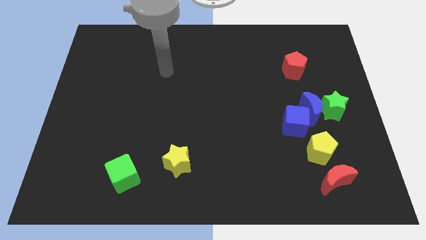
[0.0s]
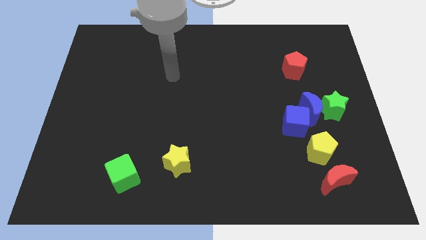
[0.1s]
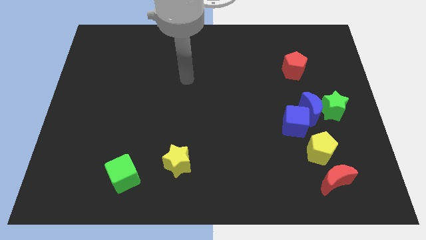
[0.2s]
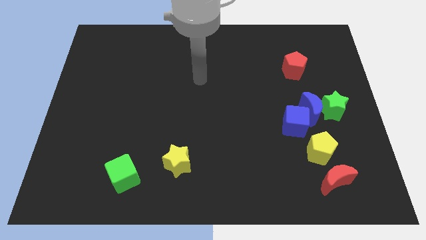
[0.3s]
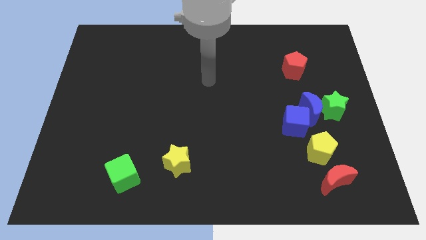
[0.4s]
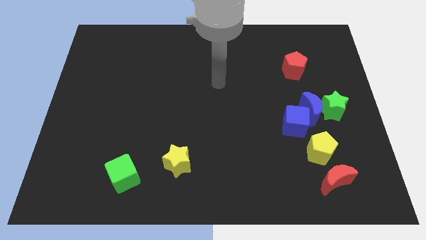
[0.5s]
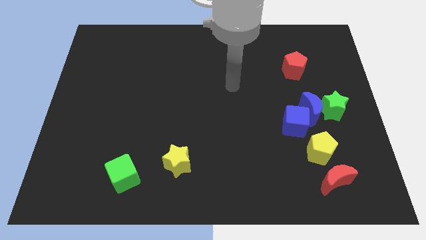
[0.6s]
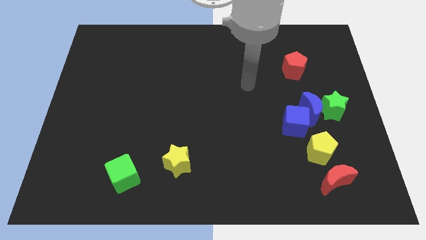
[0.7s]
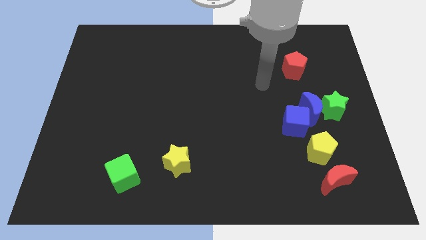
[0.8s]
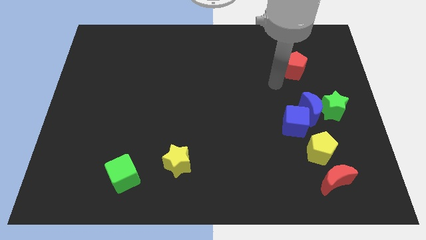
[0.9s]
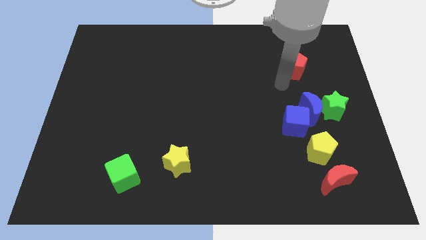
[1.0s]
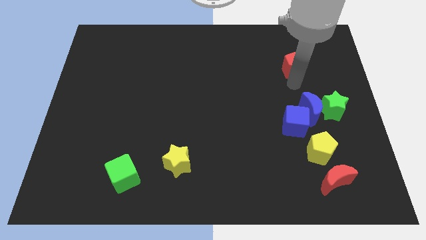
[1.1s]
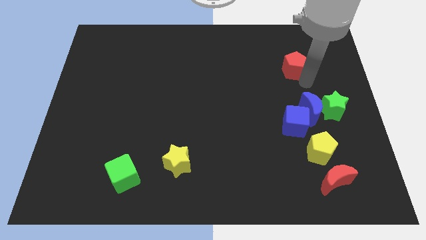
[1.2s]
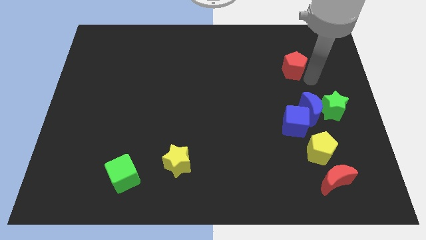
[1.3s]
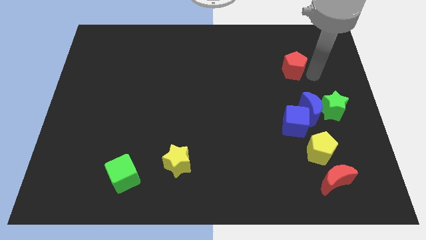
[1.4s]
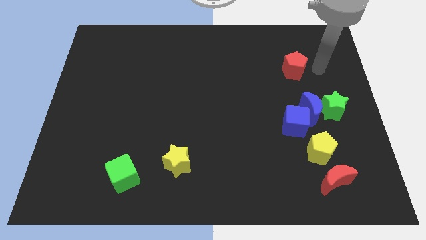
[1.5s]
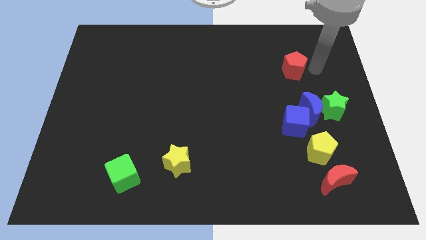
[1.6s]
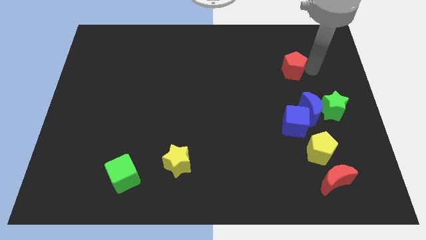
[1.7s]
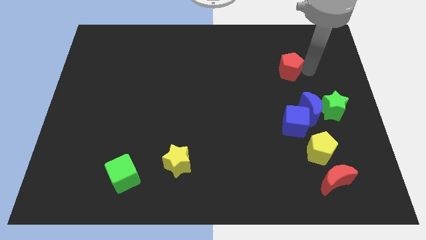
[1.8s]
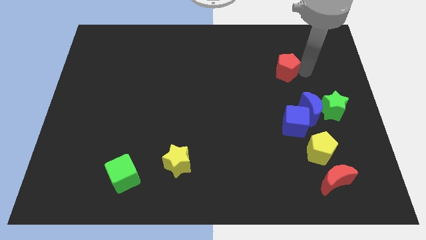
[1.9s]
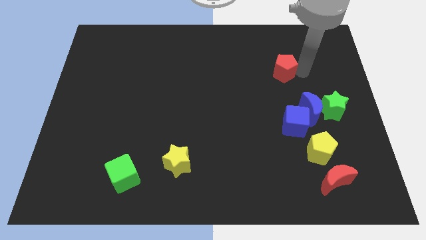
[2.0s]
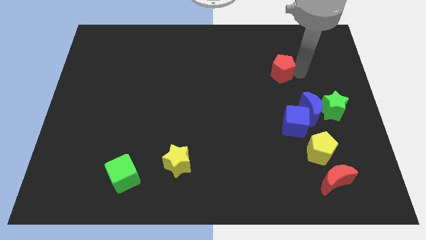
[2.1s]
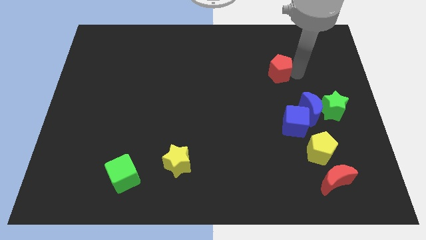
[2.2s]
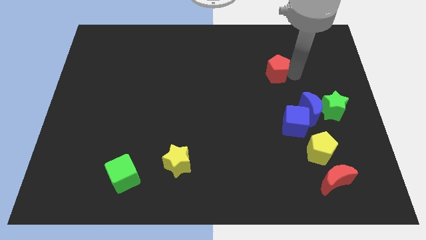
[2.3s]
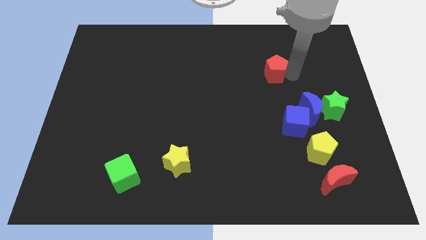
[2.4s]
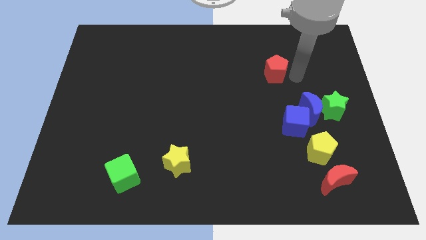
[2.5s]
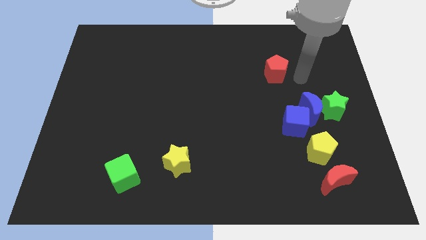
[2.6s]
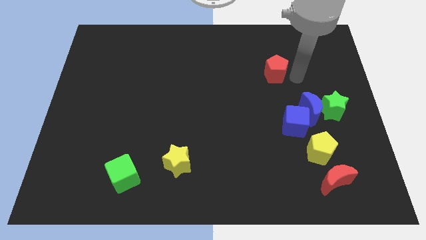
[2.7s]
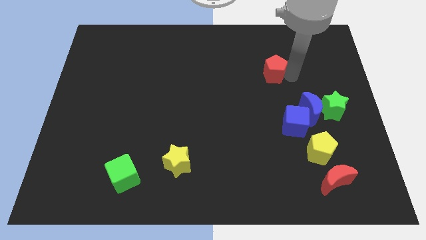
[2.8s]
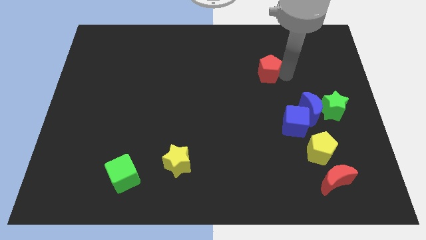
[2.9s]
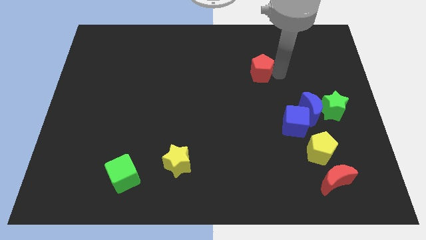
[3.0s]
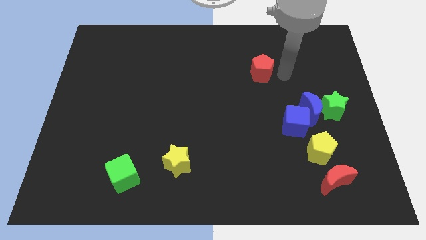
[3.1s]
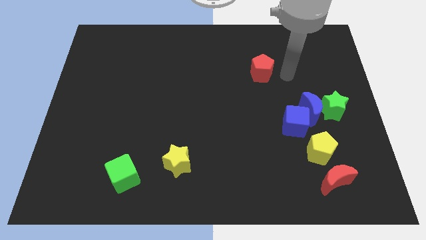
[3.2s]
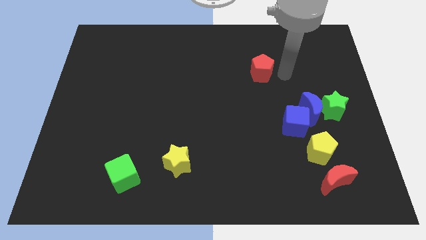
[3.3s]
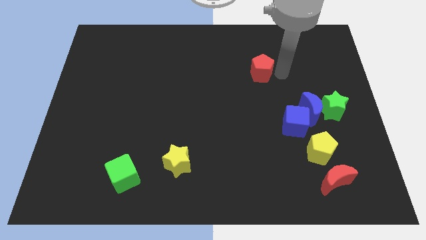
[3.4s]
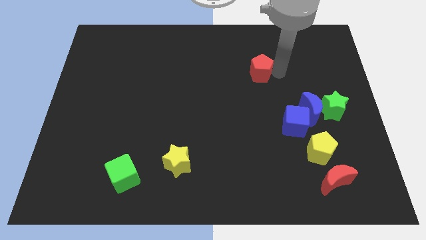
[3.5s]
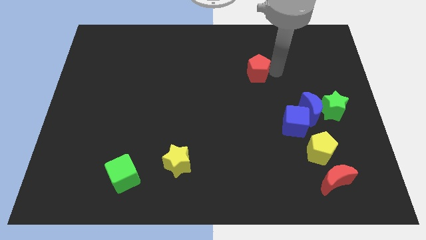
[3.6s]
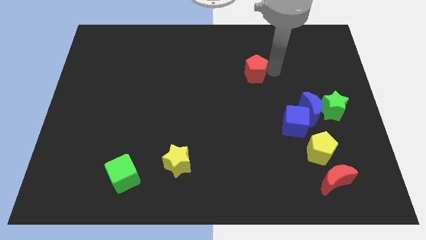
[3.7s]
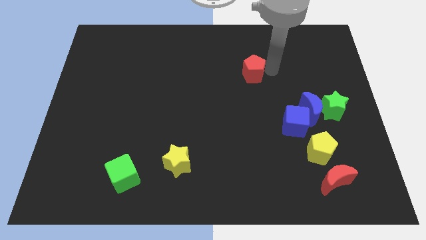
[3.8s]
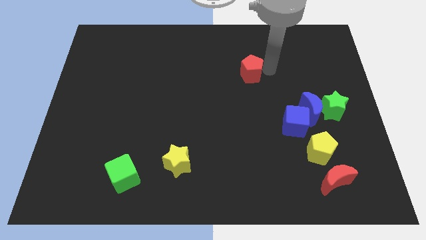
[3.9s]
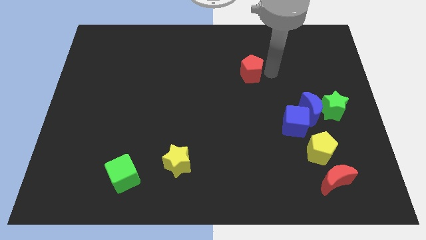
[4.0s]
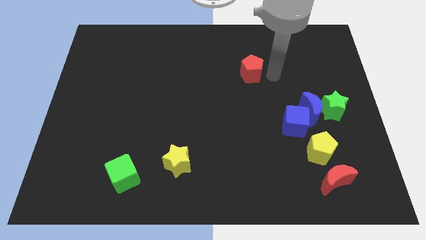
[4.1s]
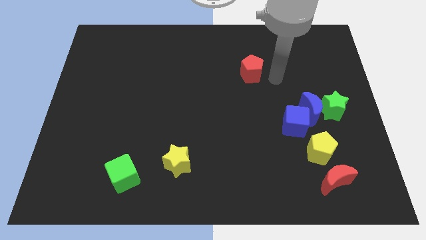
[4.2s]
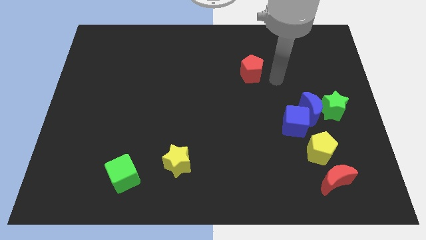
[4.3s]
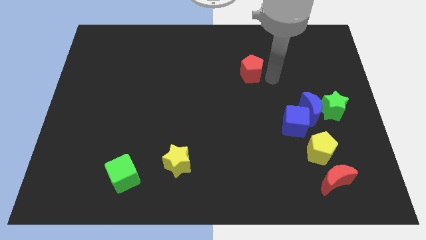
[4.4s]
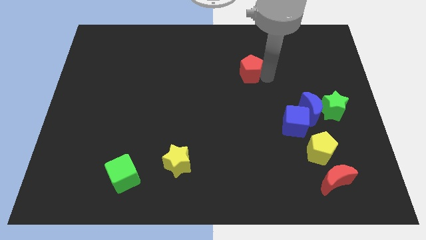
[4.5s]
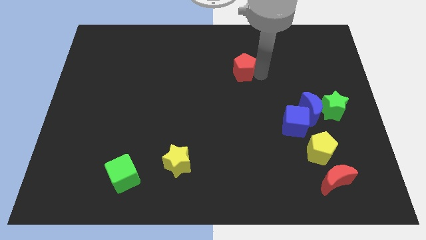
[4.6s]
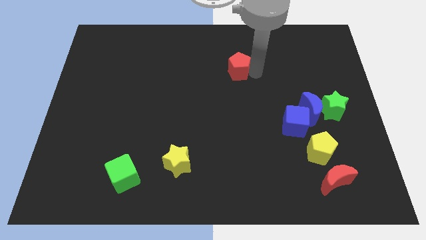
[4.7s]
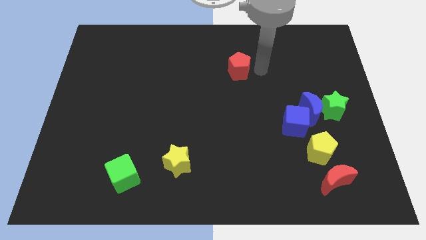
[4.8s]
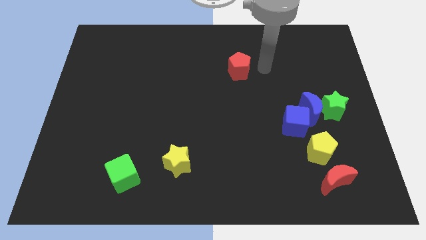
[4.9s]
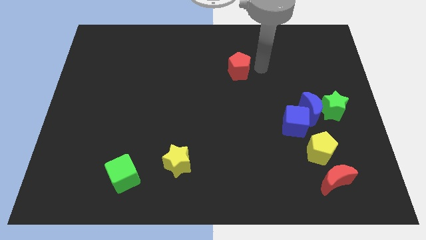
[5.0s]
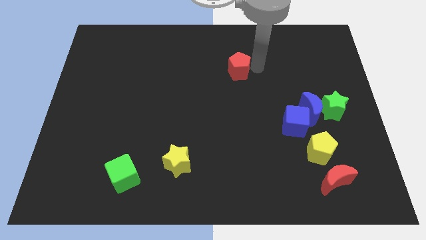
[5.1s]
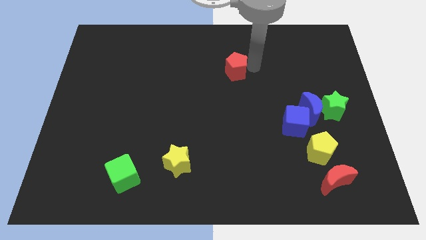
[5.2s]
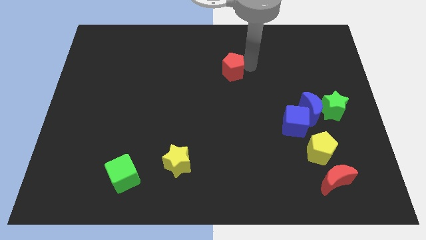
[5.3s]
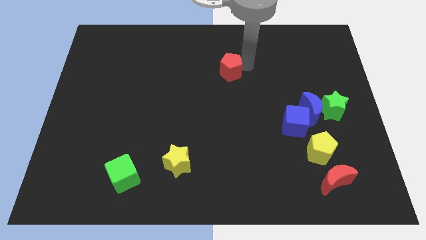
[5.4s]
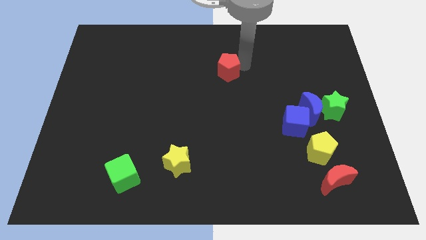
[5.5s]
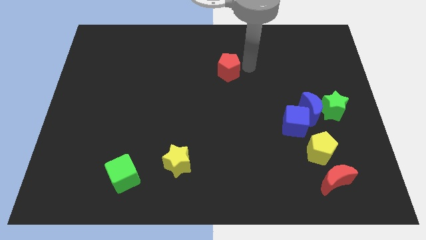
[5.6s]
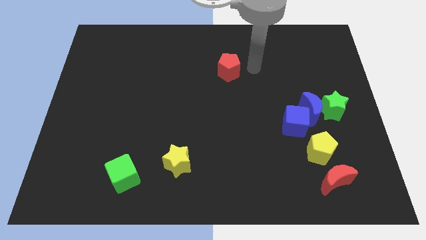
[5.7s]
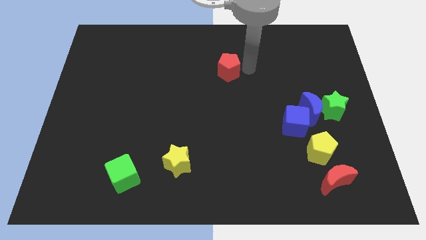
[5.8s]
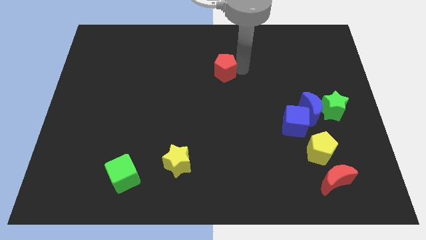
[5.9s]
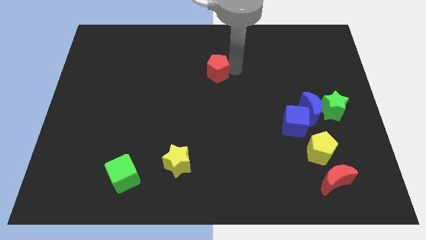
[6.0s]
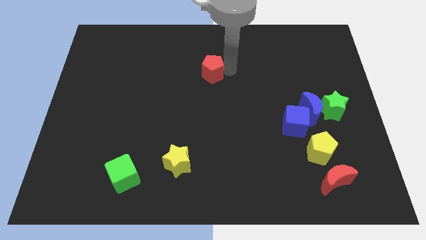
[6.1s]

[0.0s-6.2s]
slide the red pentagon to the left

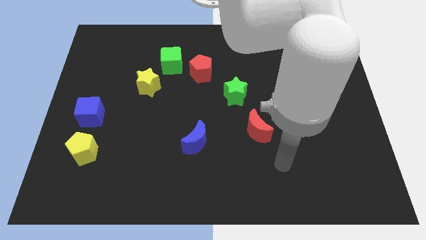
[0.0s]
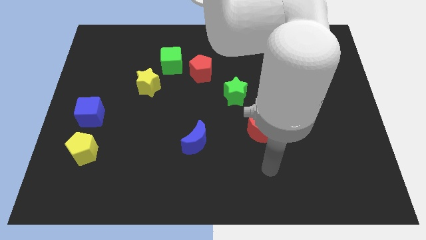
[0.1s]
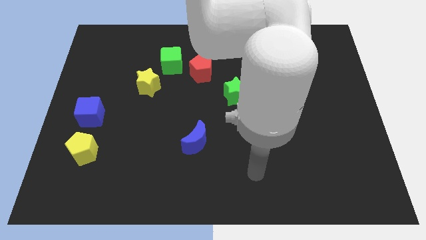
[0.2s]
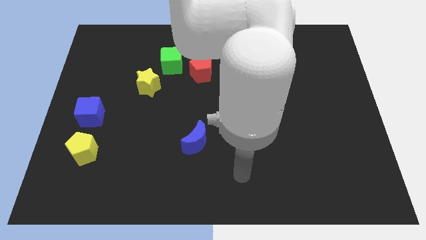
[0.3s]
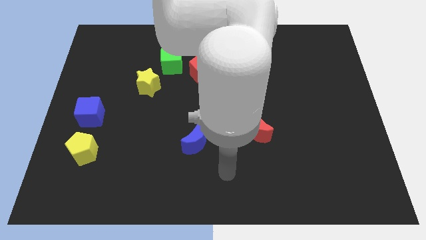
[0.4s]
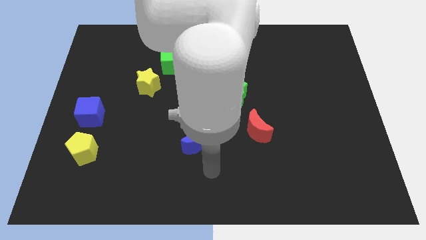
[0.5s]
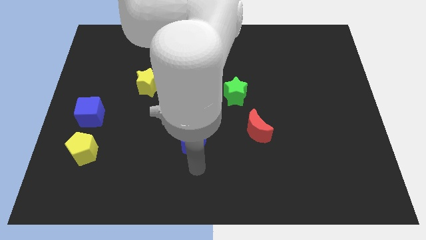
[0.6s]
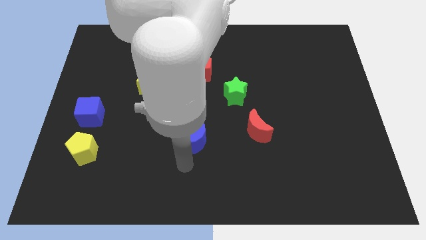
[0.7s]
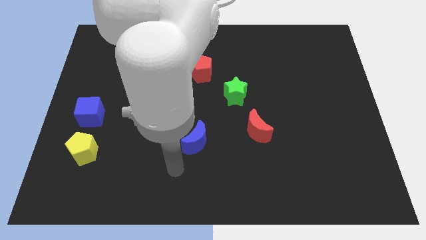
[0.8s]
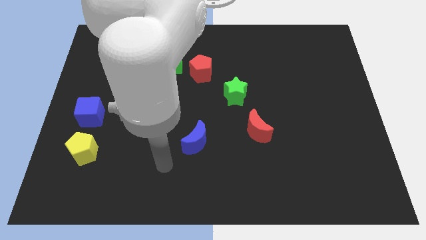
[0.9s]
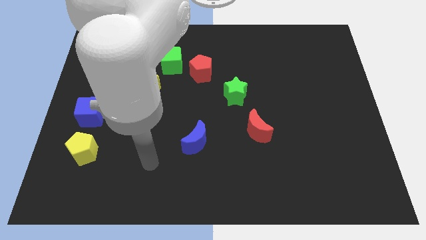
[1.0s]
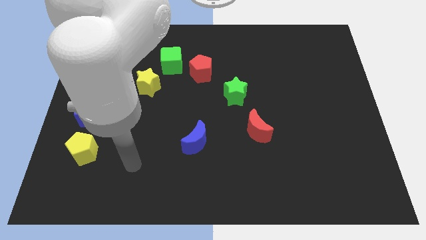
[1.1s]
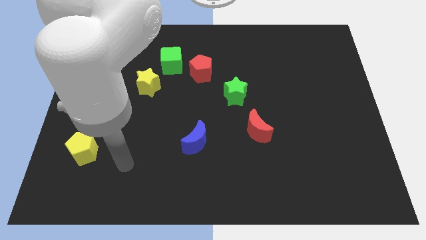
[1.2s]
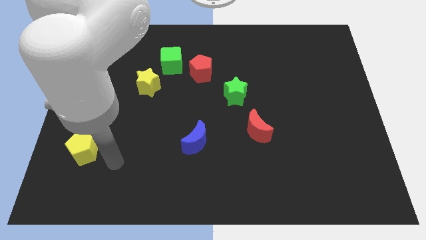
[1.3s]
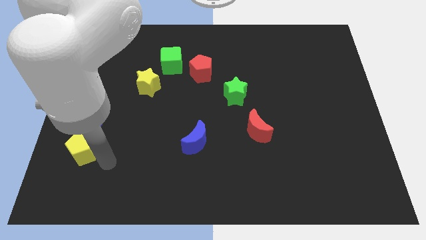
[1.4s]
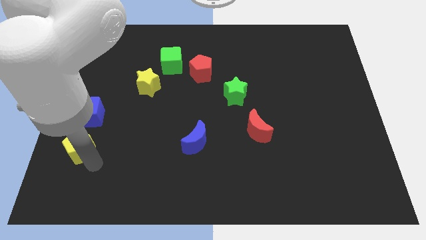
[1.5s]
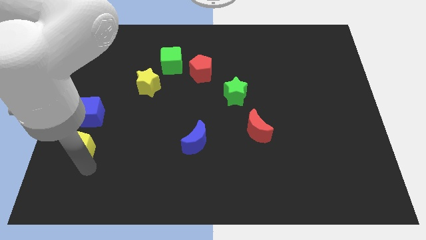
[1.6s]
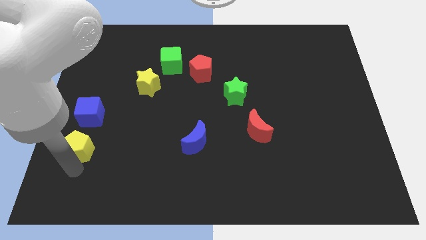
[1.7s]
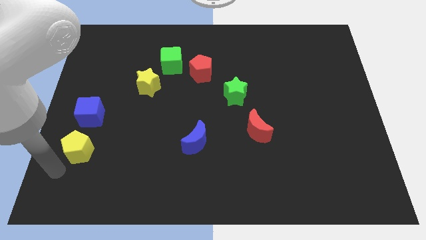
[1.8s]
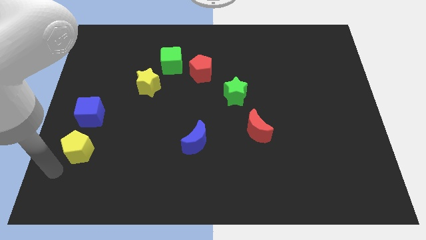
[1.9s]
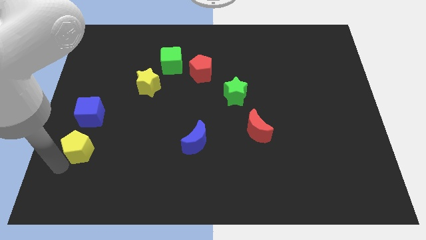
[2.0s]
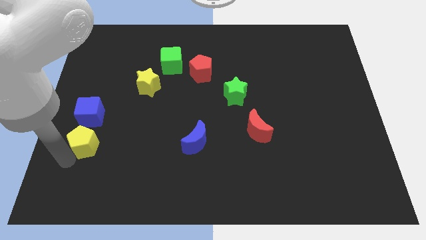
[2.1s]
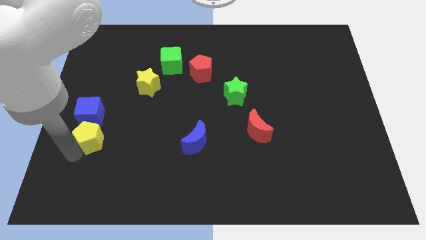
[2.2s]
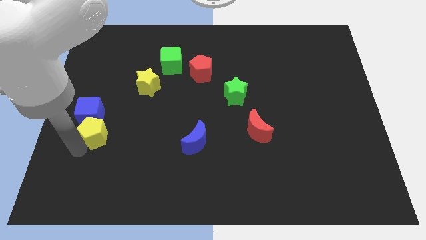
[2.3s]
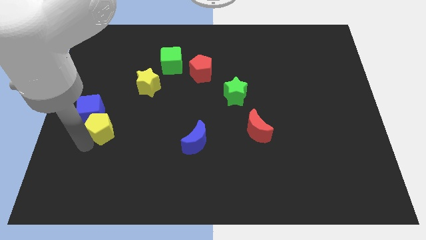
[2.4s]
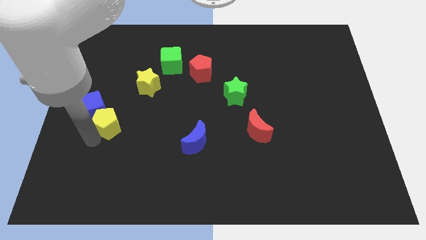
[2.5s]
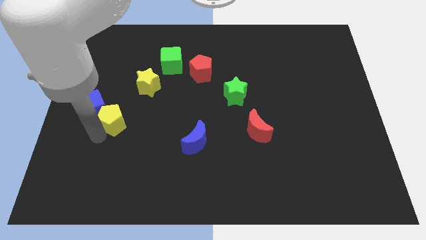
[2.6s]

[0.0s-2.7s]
slightly push the yellow pentagon up
